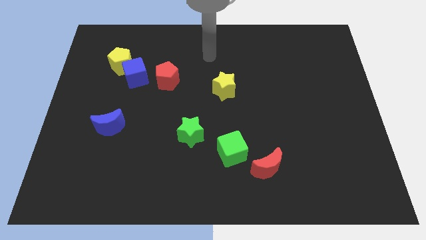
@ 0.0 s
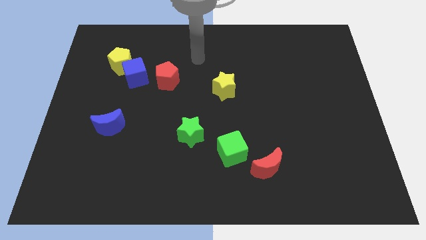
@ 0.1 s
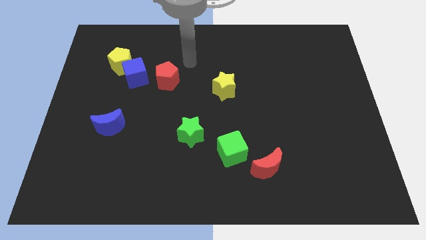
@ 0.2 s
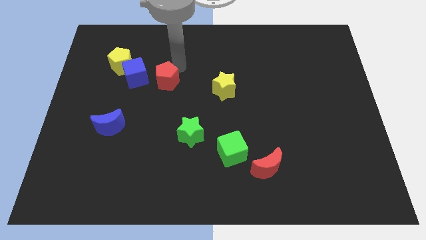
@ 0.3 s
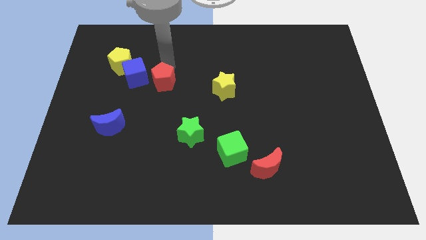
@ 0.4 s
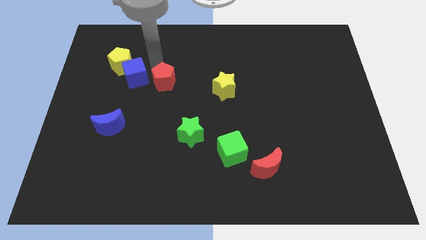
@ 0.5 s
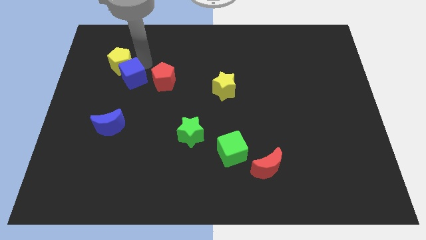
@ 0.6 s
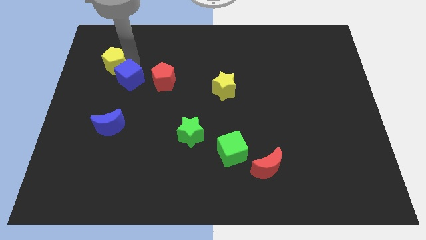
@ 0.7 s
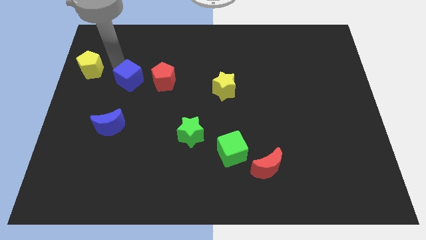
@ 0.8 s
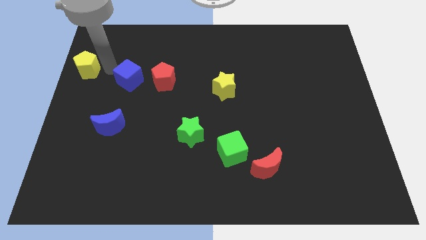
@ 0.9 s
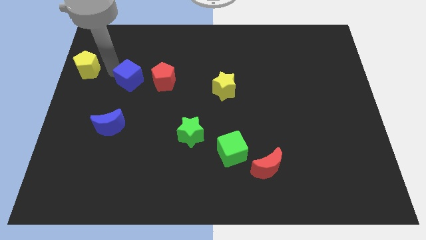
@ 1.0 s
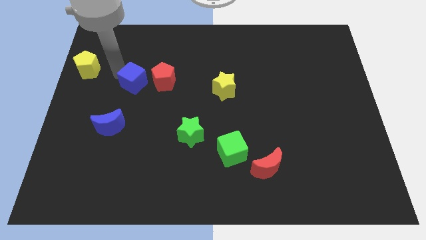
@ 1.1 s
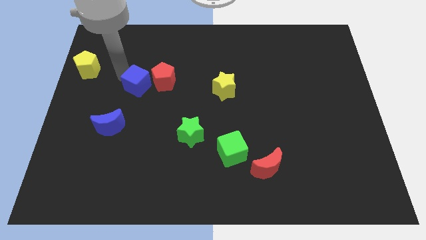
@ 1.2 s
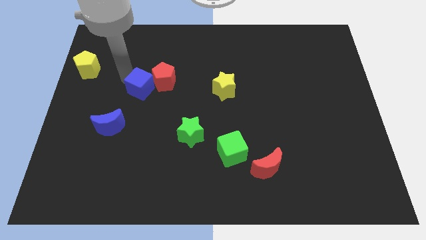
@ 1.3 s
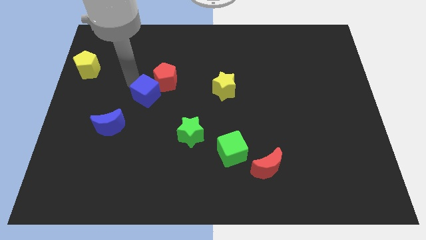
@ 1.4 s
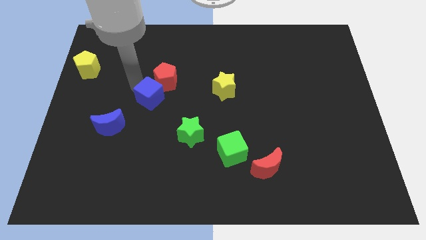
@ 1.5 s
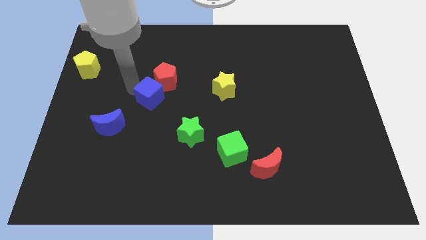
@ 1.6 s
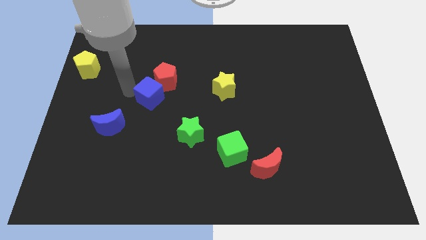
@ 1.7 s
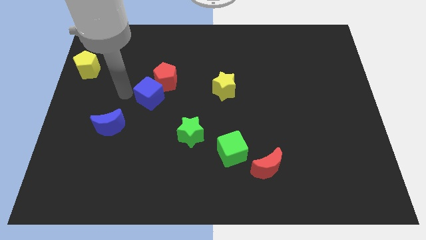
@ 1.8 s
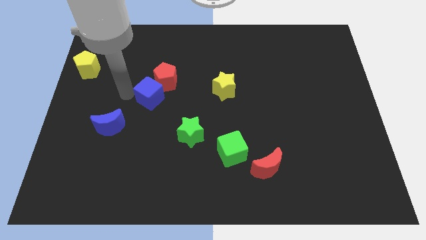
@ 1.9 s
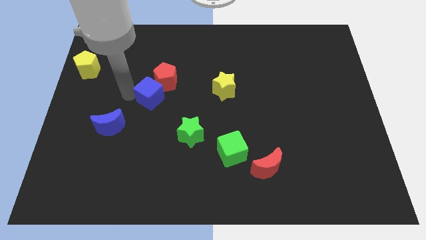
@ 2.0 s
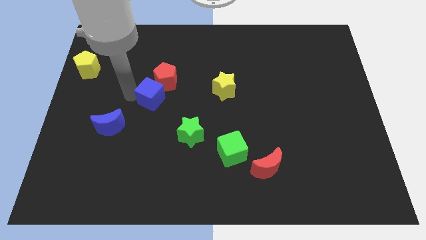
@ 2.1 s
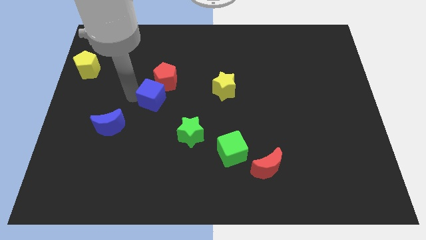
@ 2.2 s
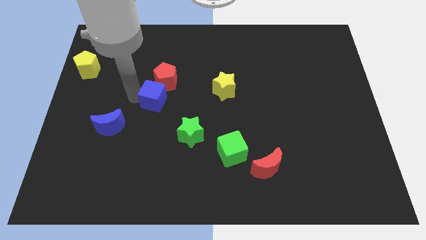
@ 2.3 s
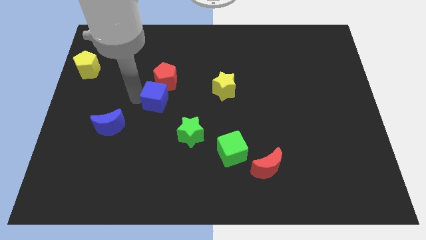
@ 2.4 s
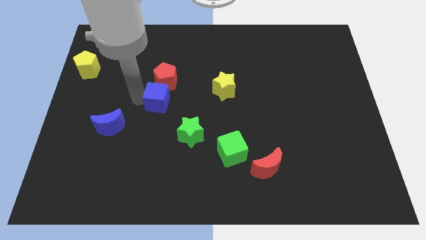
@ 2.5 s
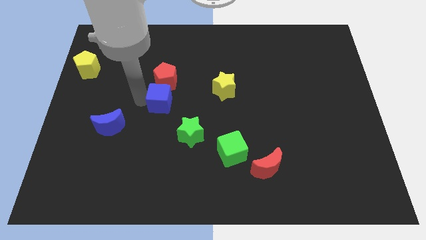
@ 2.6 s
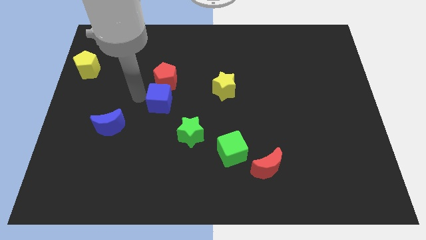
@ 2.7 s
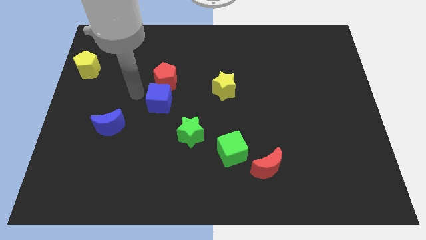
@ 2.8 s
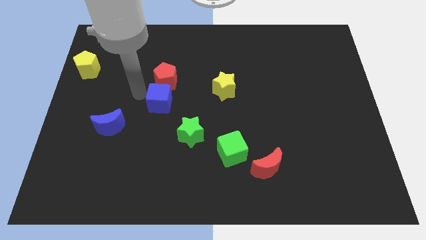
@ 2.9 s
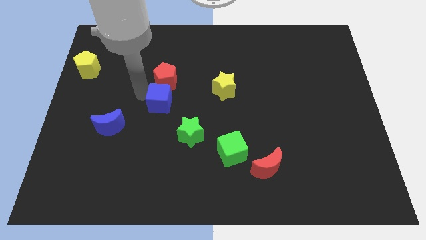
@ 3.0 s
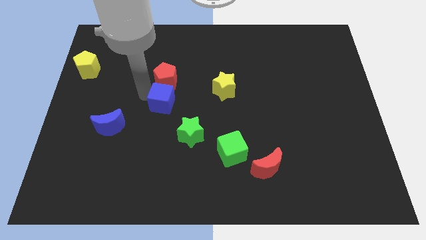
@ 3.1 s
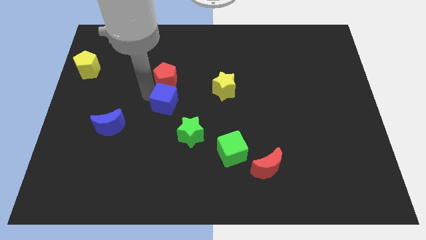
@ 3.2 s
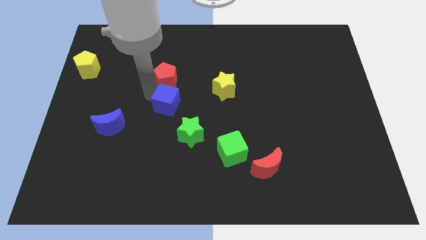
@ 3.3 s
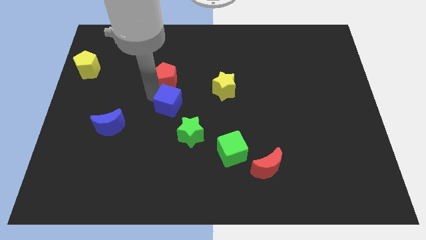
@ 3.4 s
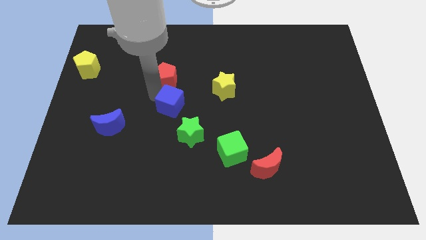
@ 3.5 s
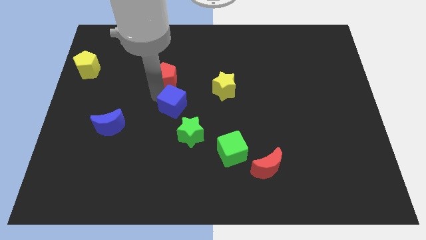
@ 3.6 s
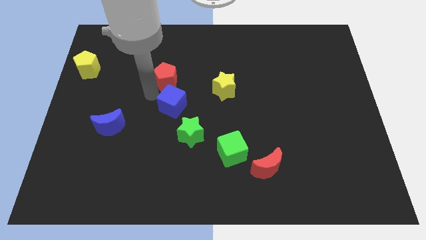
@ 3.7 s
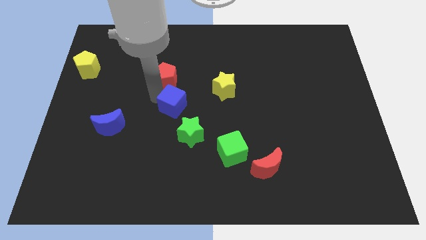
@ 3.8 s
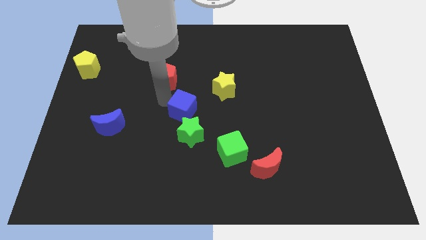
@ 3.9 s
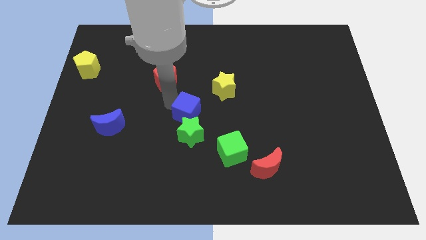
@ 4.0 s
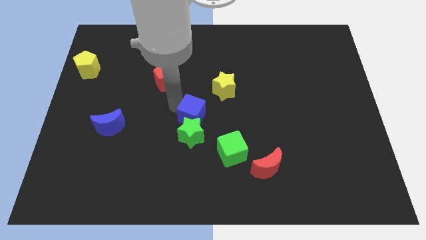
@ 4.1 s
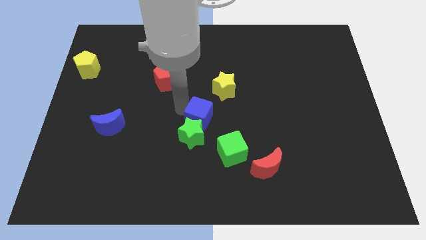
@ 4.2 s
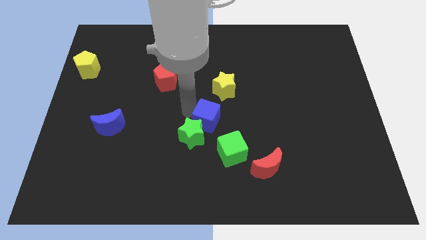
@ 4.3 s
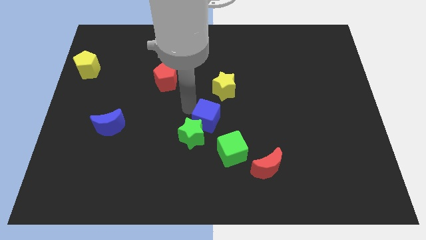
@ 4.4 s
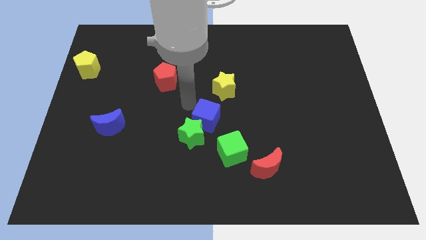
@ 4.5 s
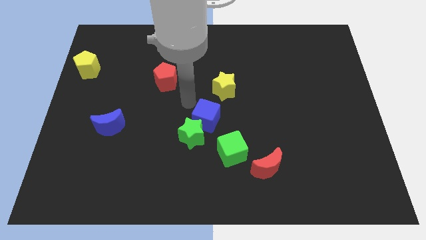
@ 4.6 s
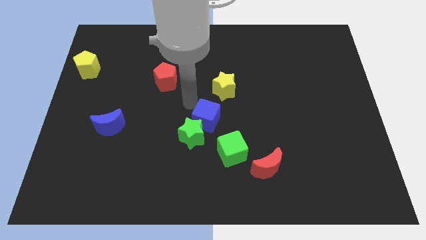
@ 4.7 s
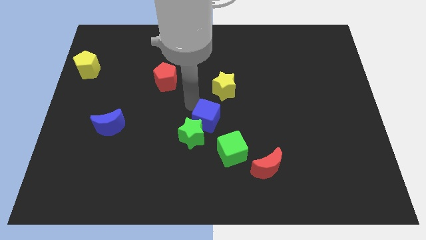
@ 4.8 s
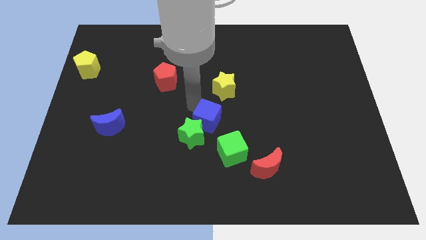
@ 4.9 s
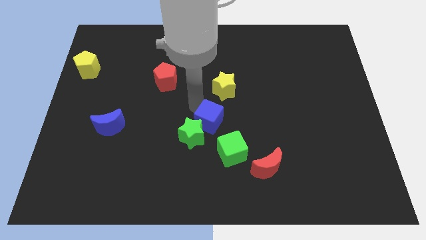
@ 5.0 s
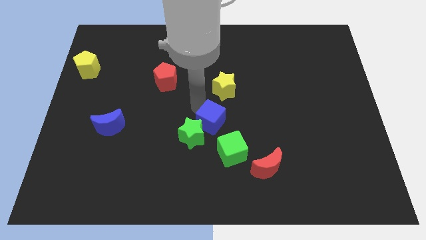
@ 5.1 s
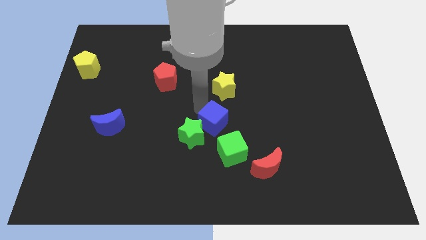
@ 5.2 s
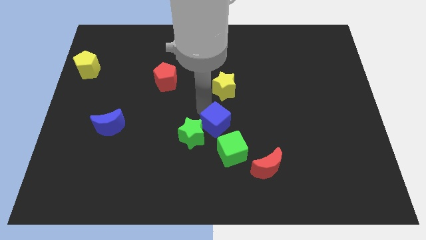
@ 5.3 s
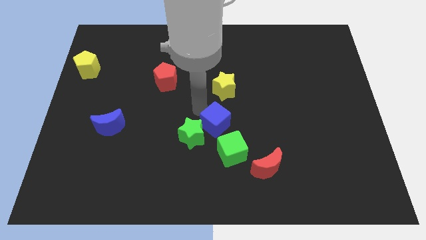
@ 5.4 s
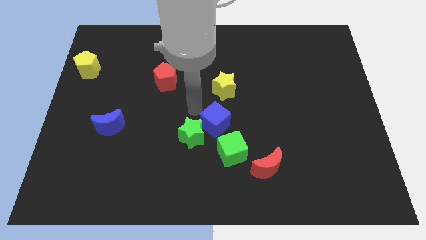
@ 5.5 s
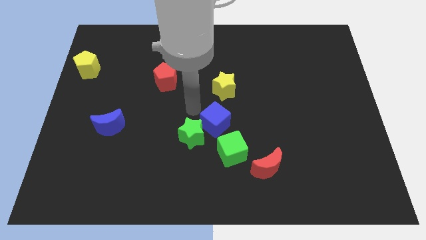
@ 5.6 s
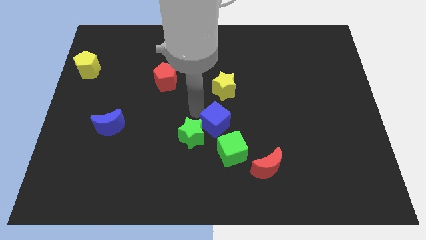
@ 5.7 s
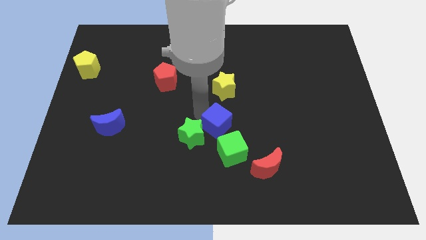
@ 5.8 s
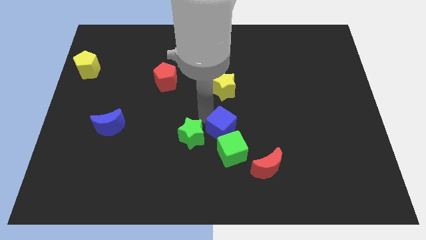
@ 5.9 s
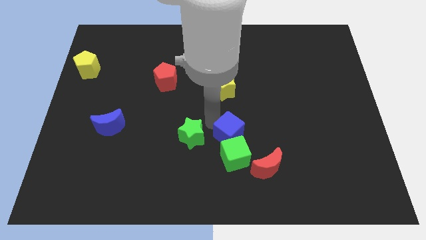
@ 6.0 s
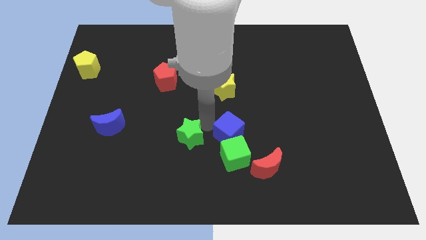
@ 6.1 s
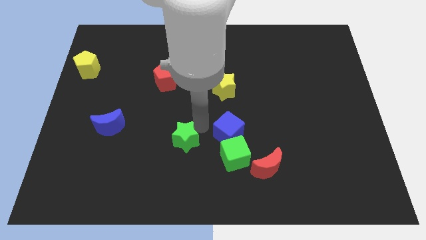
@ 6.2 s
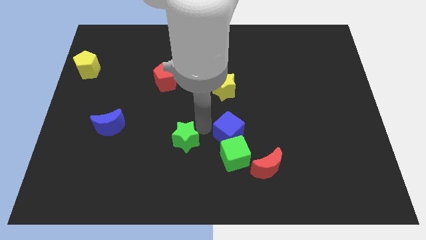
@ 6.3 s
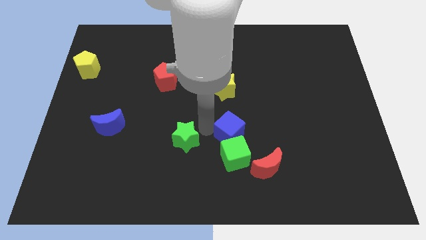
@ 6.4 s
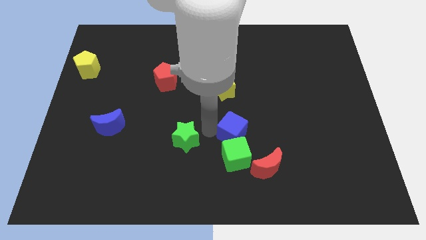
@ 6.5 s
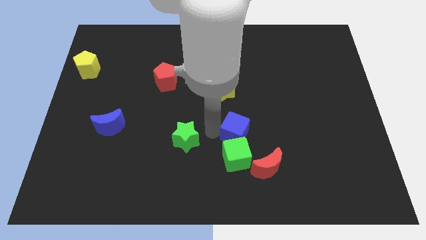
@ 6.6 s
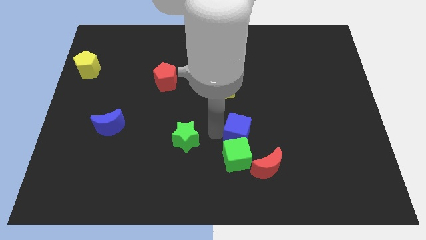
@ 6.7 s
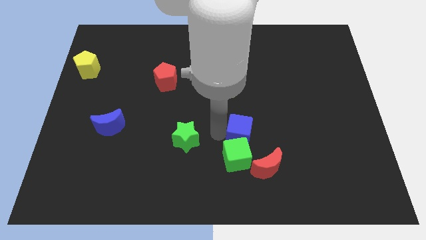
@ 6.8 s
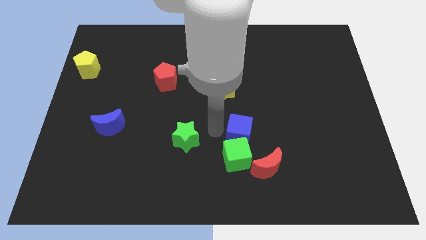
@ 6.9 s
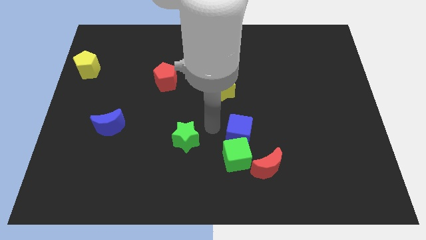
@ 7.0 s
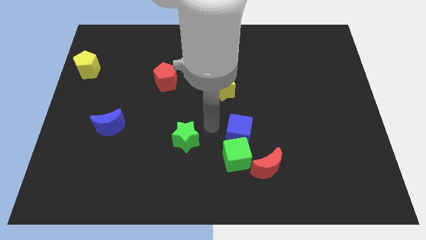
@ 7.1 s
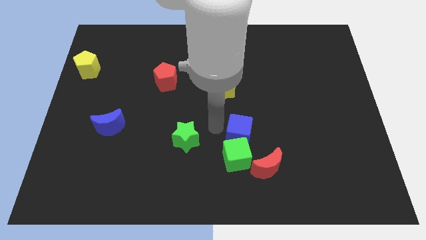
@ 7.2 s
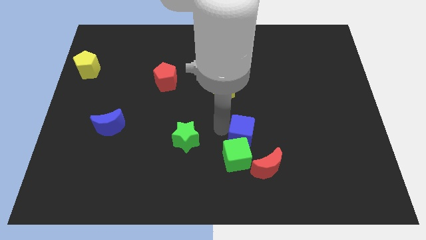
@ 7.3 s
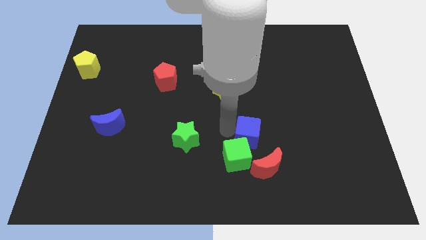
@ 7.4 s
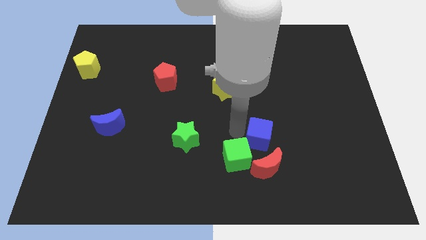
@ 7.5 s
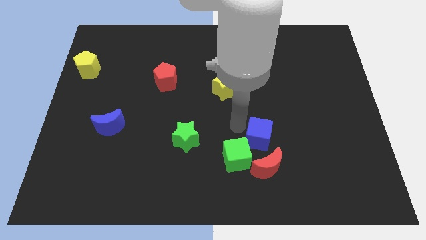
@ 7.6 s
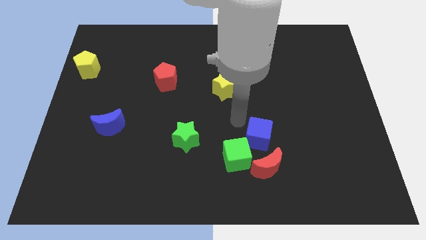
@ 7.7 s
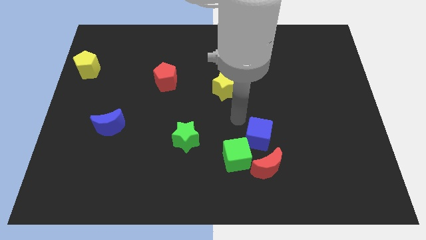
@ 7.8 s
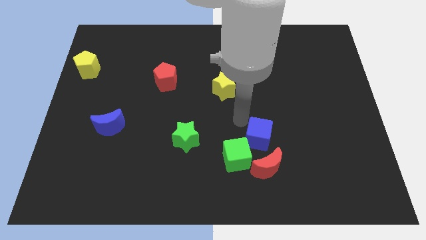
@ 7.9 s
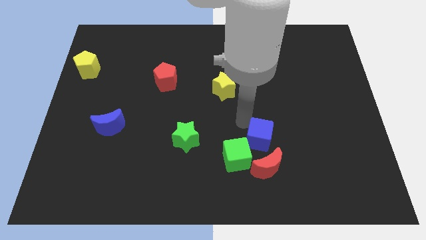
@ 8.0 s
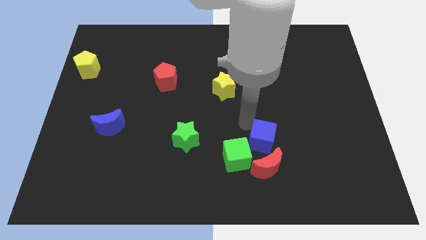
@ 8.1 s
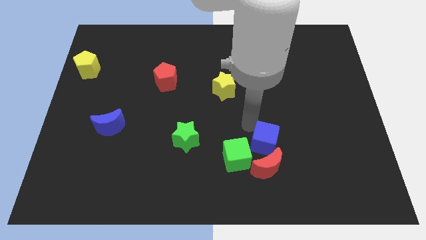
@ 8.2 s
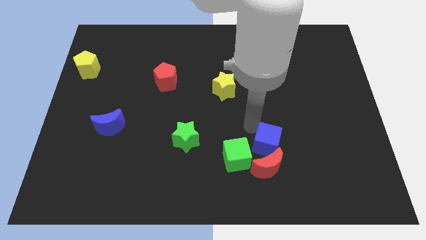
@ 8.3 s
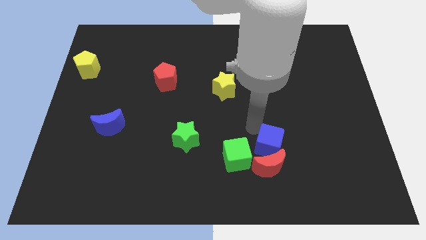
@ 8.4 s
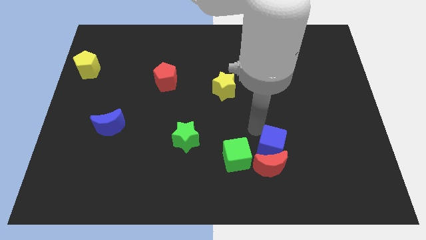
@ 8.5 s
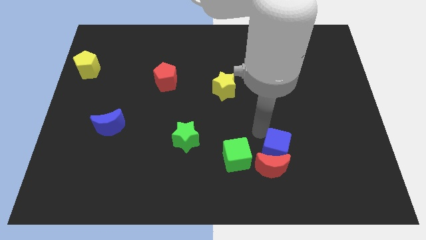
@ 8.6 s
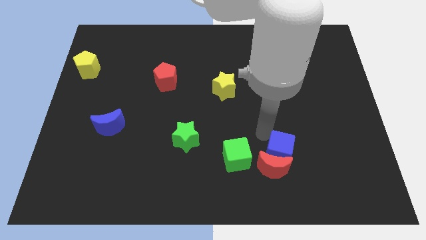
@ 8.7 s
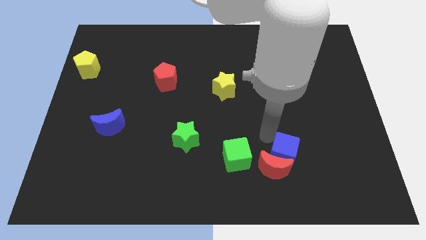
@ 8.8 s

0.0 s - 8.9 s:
slide the blue cube to the right of the red moon
